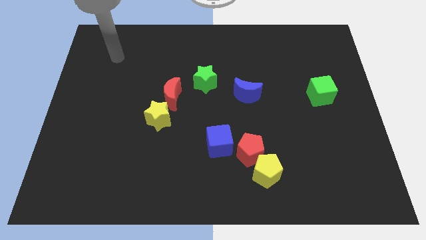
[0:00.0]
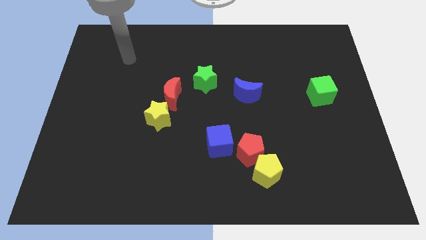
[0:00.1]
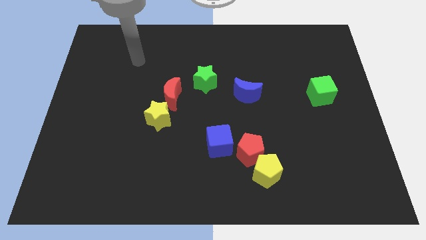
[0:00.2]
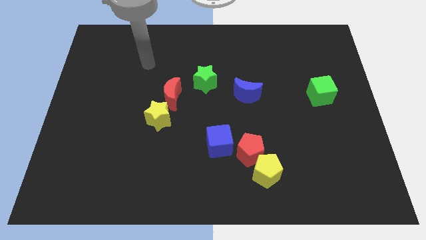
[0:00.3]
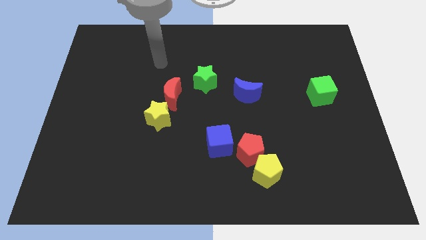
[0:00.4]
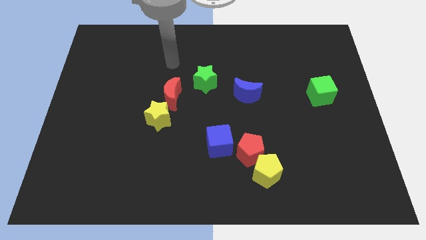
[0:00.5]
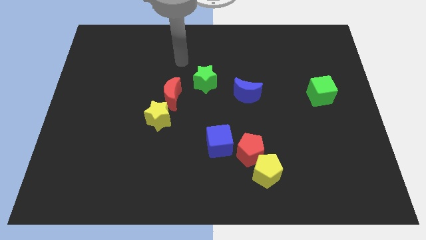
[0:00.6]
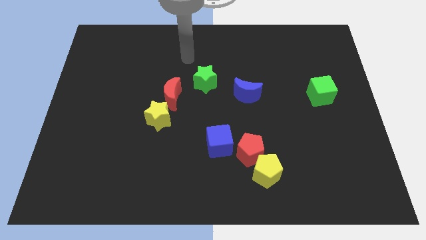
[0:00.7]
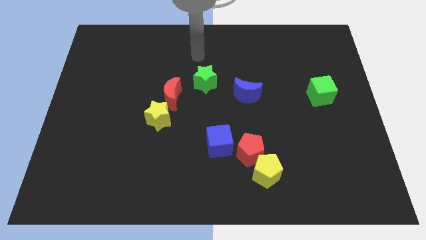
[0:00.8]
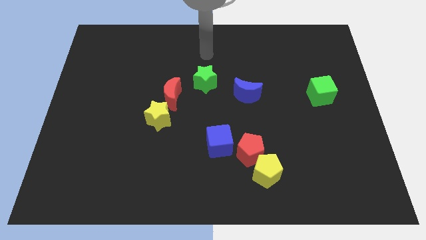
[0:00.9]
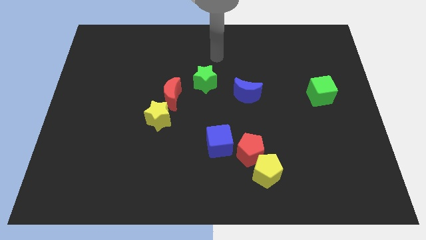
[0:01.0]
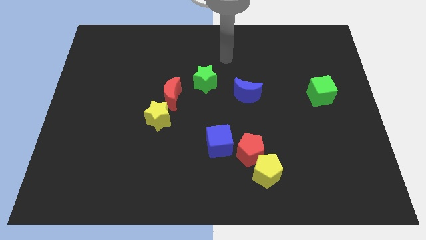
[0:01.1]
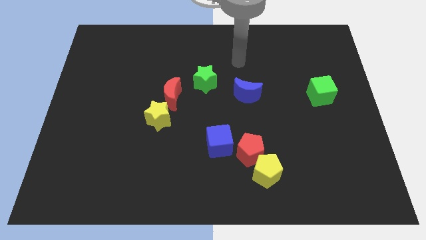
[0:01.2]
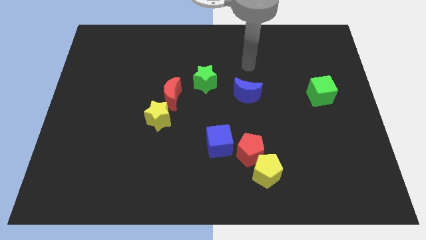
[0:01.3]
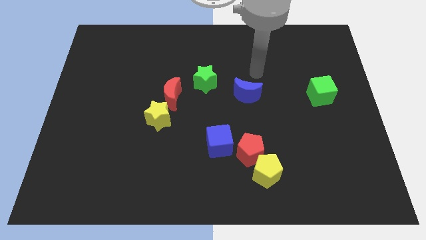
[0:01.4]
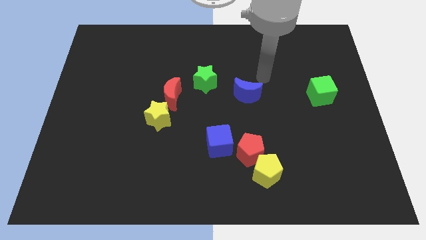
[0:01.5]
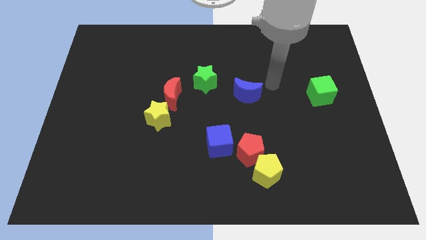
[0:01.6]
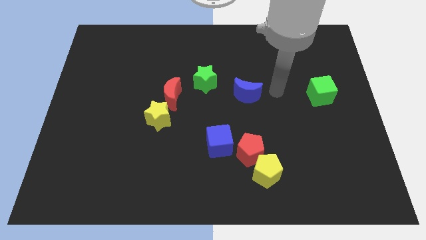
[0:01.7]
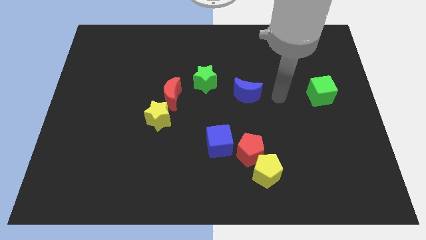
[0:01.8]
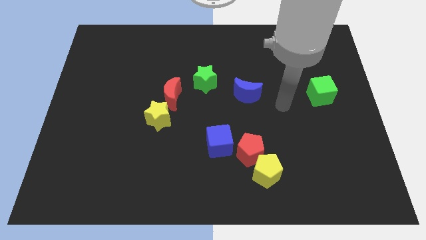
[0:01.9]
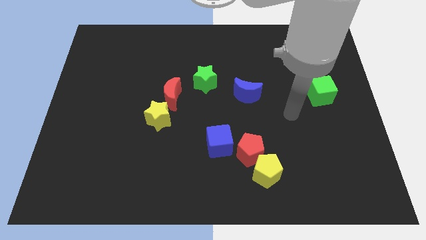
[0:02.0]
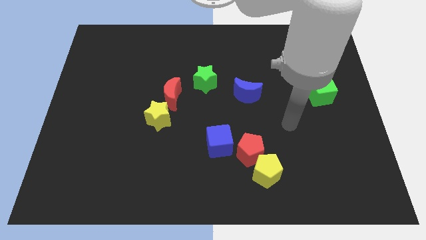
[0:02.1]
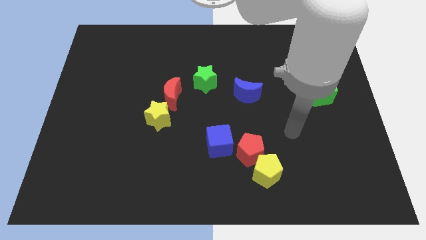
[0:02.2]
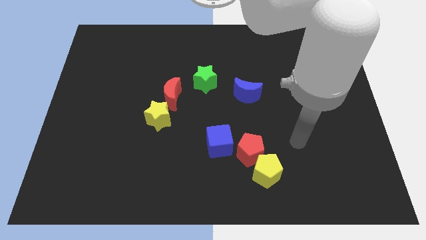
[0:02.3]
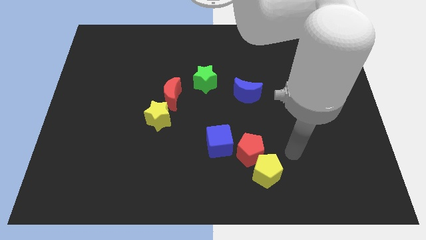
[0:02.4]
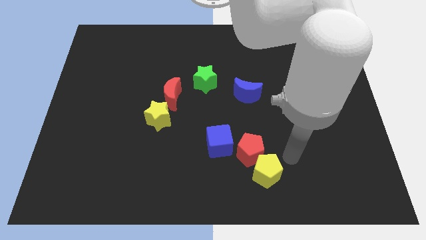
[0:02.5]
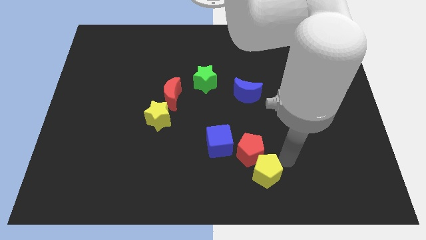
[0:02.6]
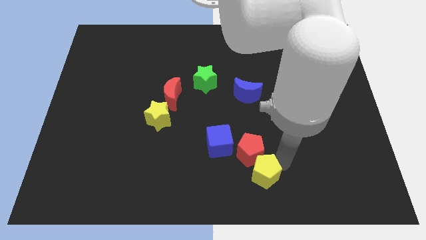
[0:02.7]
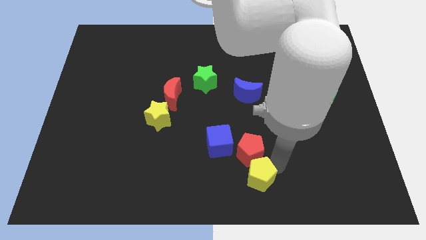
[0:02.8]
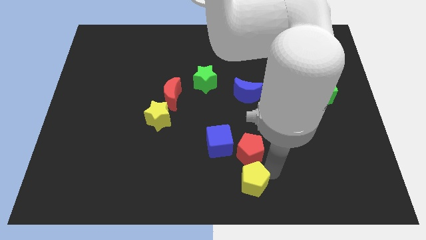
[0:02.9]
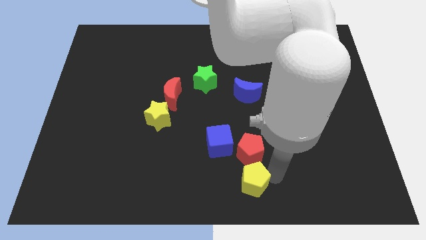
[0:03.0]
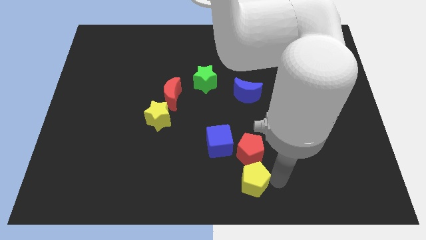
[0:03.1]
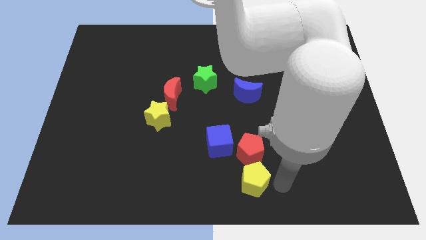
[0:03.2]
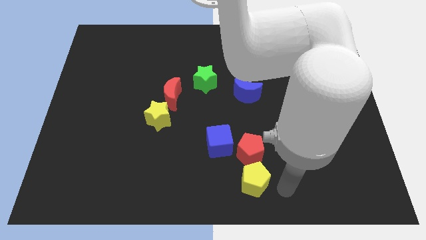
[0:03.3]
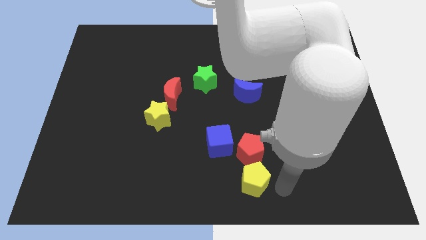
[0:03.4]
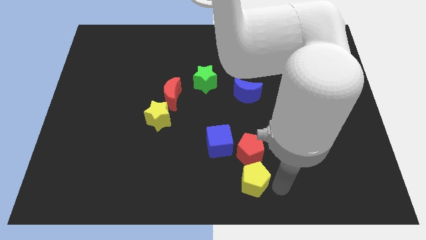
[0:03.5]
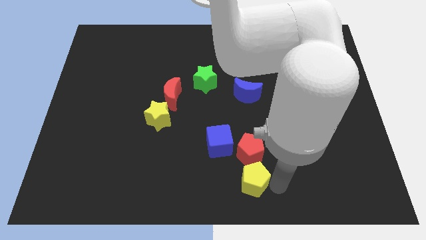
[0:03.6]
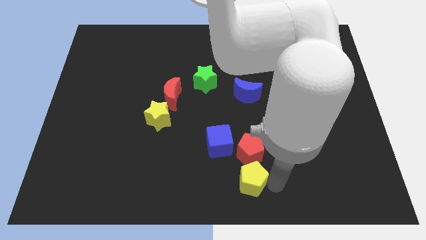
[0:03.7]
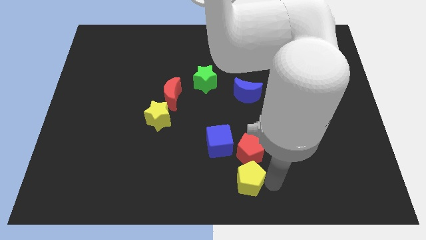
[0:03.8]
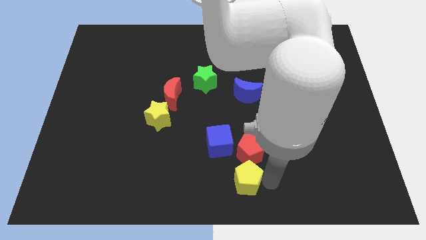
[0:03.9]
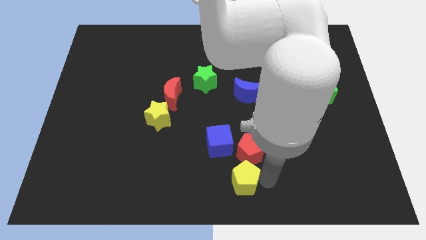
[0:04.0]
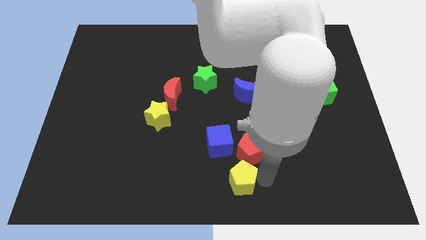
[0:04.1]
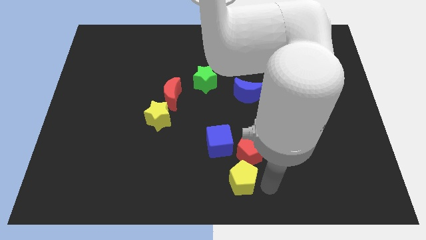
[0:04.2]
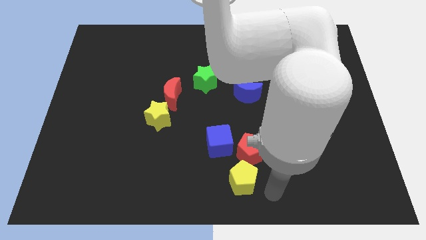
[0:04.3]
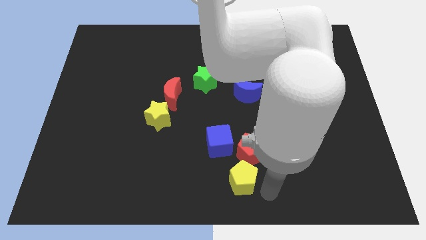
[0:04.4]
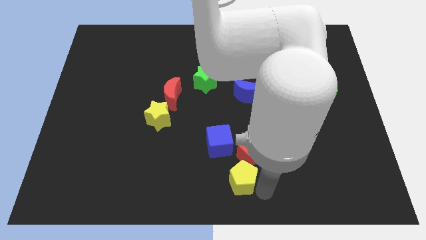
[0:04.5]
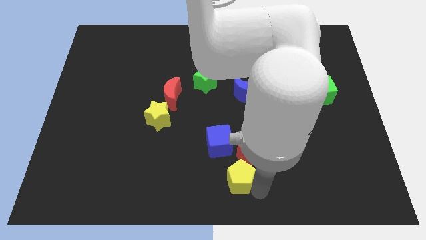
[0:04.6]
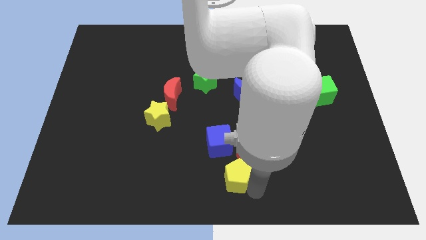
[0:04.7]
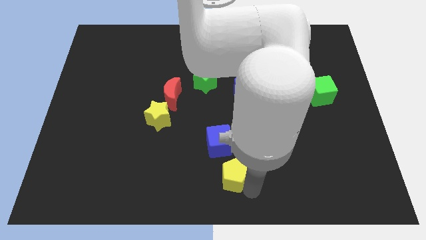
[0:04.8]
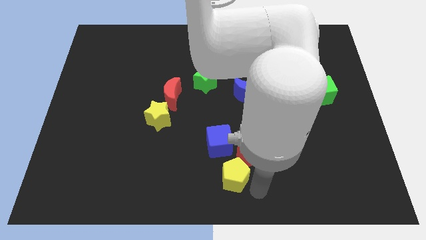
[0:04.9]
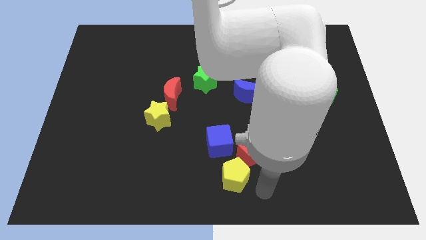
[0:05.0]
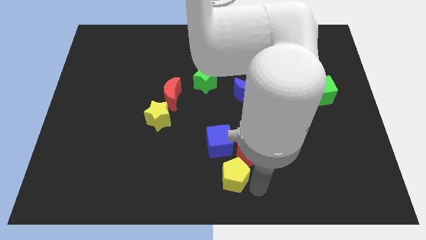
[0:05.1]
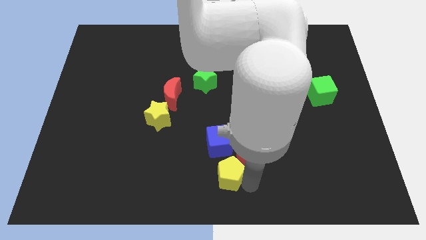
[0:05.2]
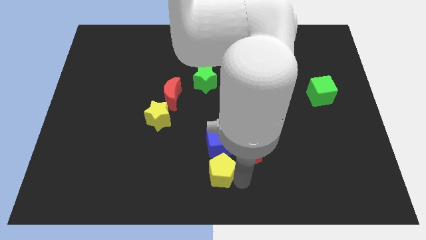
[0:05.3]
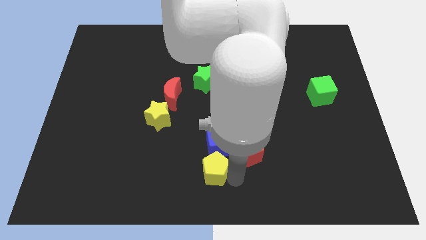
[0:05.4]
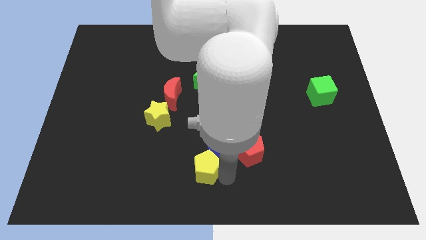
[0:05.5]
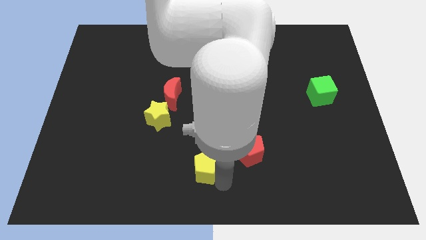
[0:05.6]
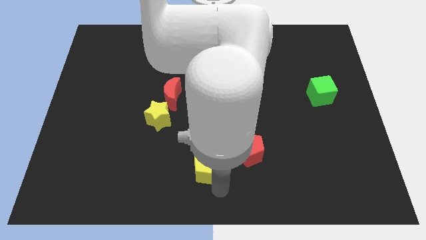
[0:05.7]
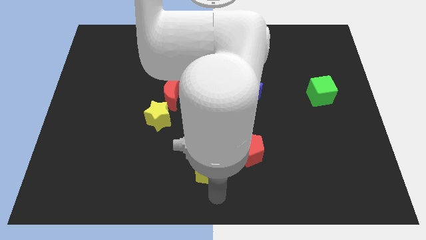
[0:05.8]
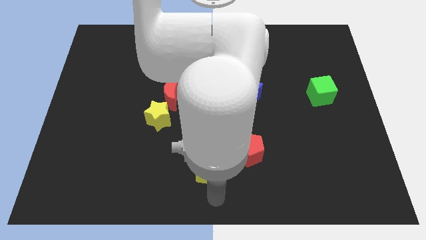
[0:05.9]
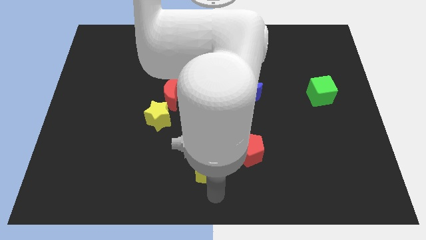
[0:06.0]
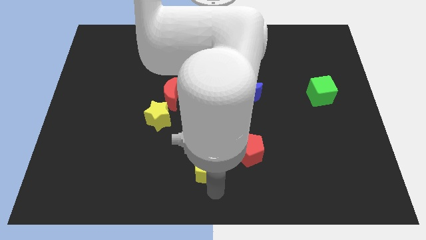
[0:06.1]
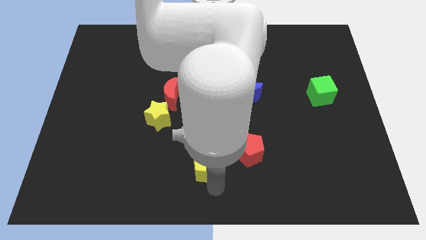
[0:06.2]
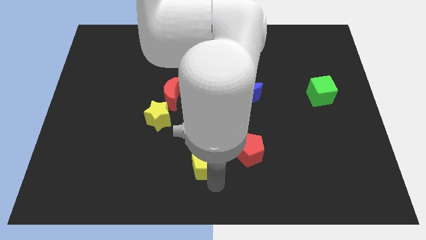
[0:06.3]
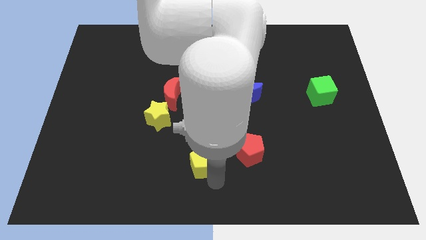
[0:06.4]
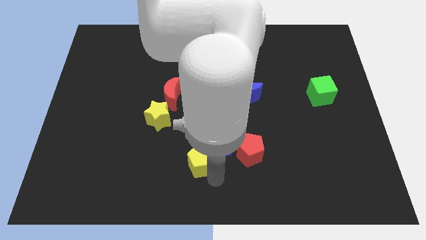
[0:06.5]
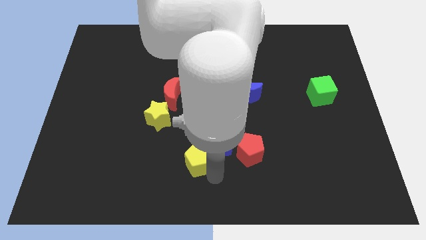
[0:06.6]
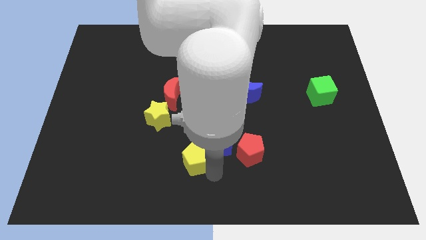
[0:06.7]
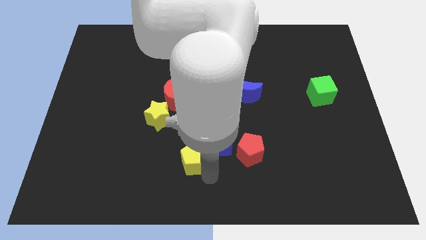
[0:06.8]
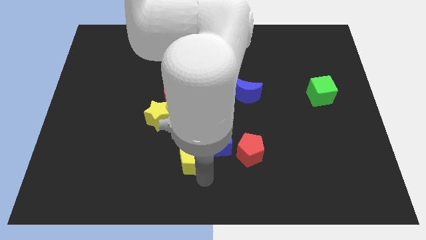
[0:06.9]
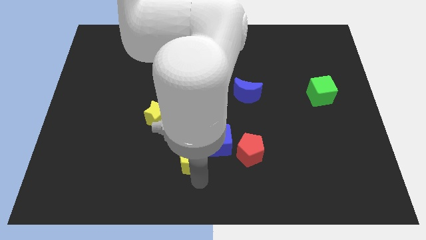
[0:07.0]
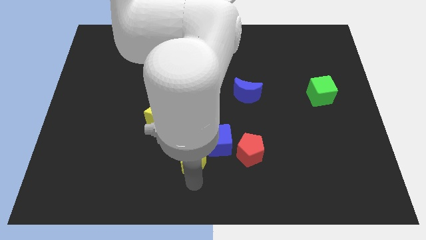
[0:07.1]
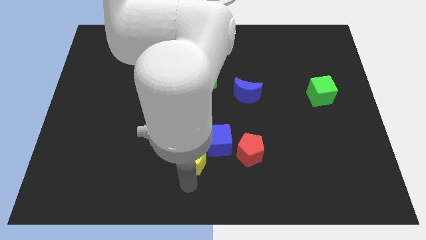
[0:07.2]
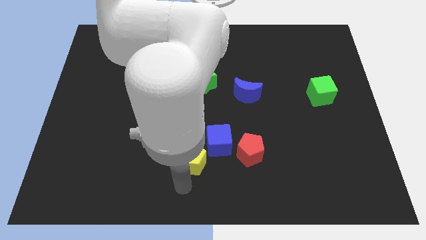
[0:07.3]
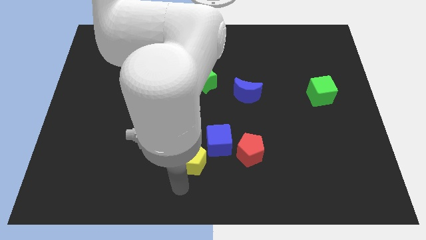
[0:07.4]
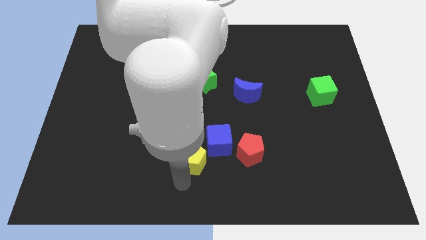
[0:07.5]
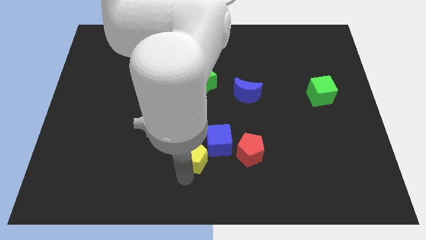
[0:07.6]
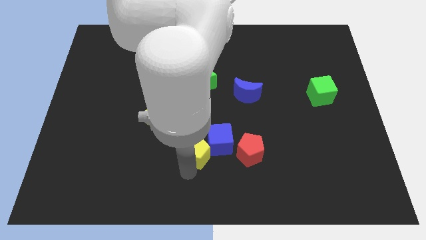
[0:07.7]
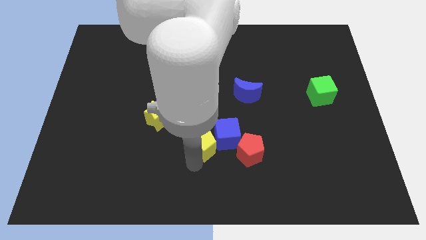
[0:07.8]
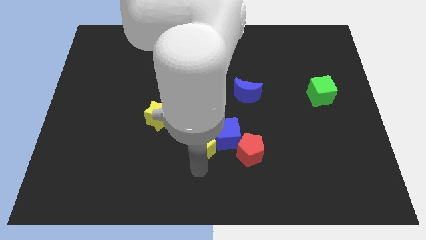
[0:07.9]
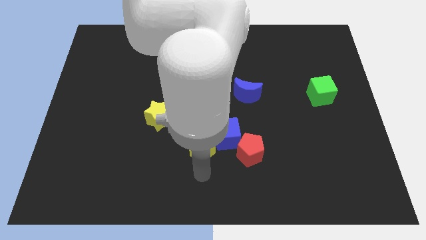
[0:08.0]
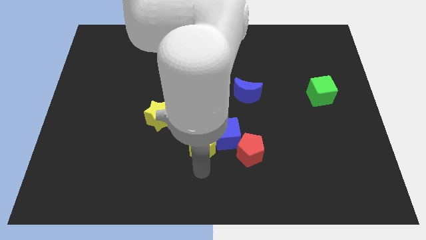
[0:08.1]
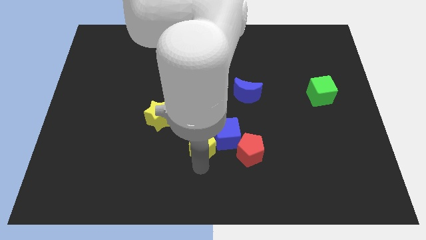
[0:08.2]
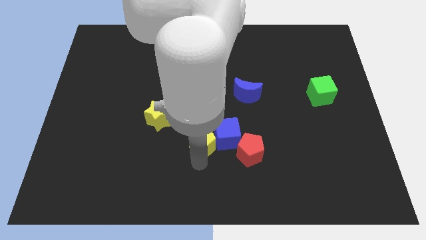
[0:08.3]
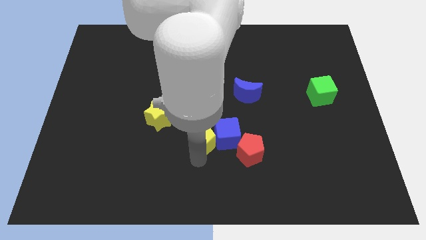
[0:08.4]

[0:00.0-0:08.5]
move the yellow pentagon to the top left side of the blue cube
